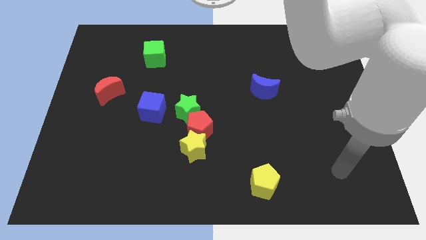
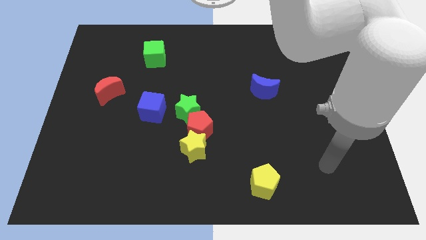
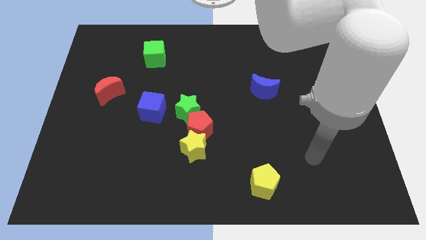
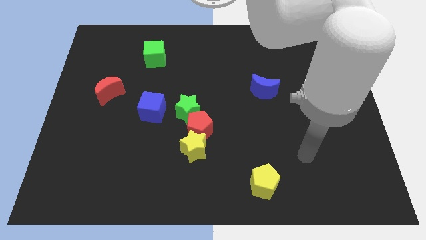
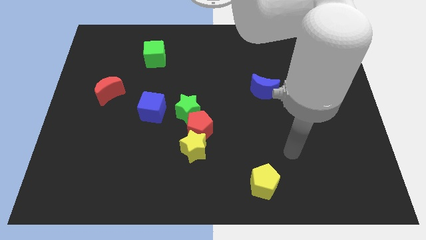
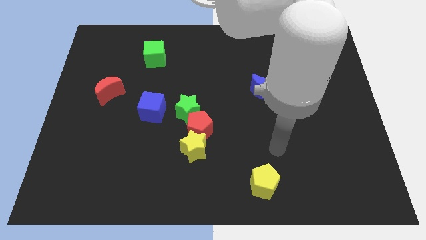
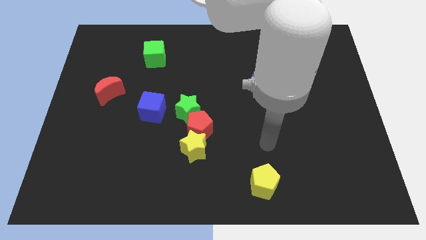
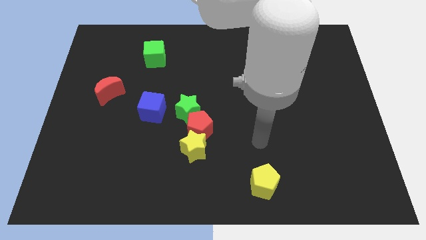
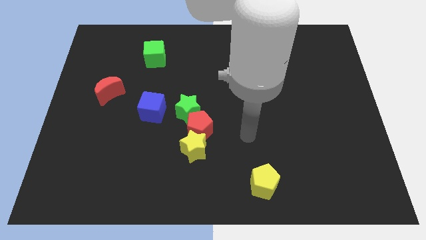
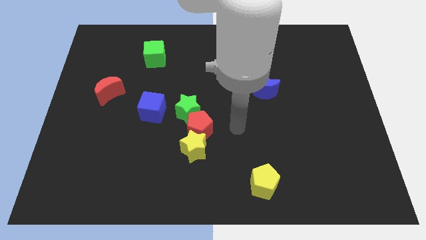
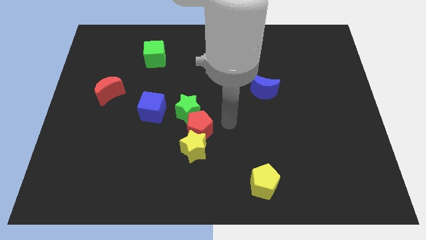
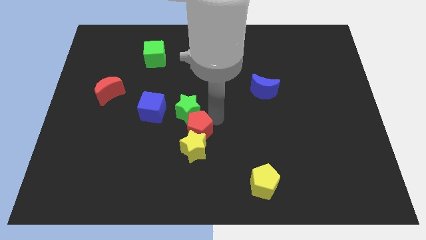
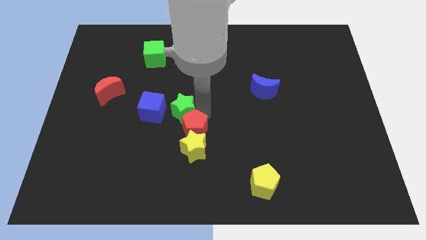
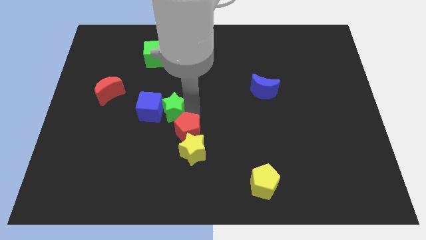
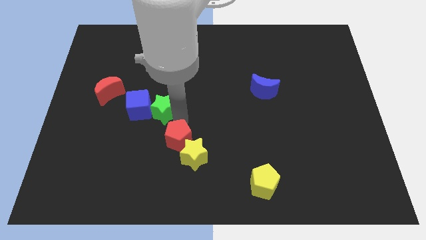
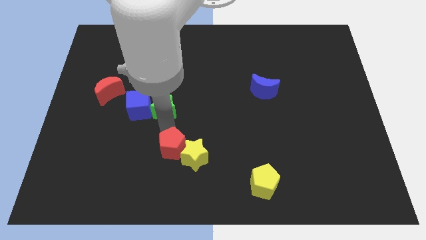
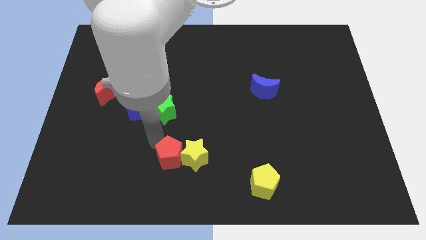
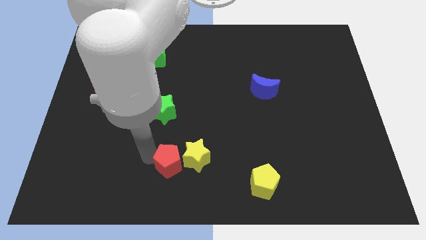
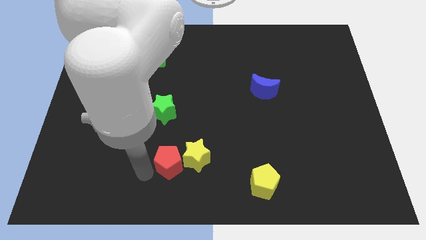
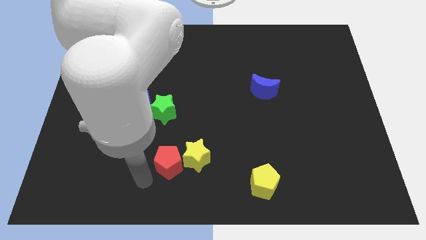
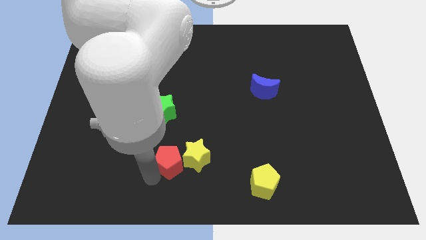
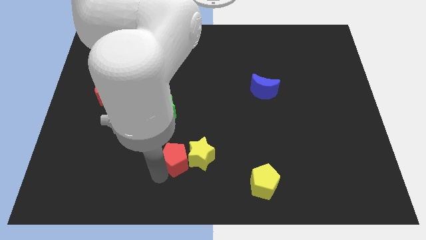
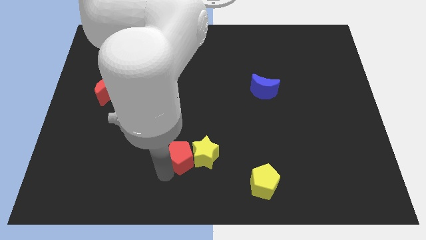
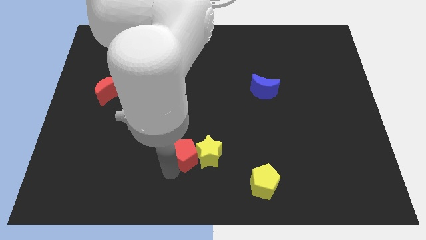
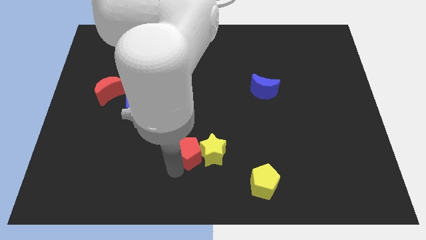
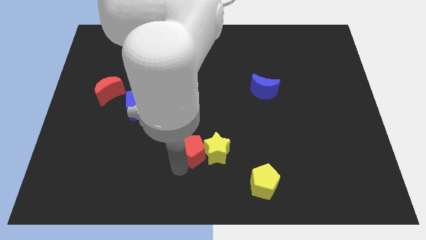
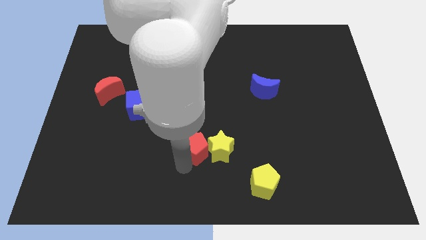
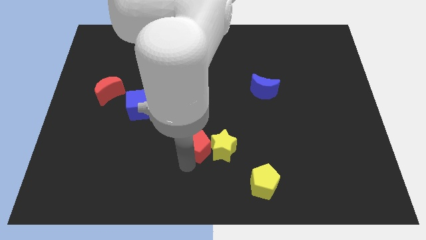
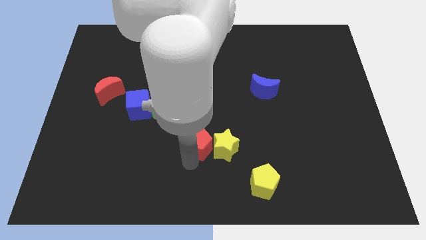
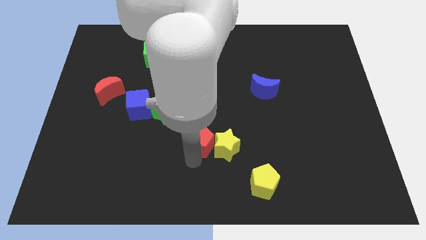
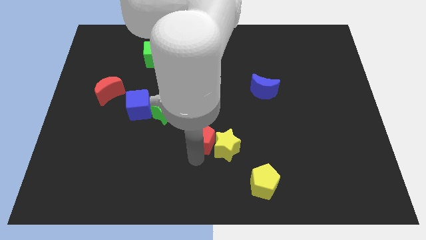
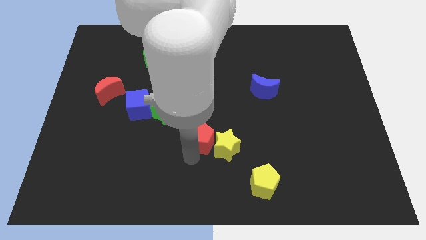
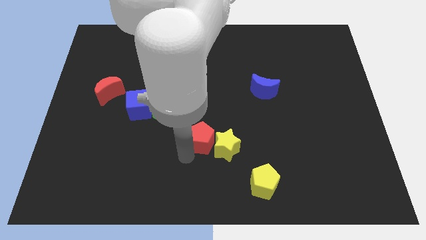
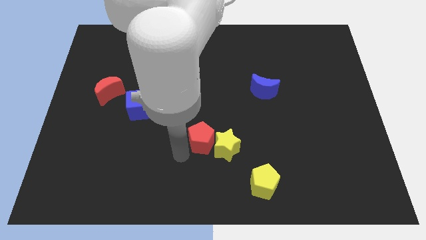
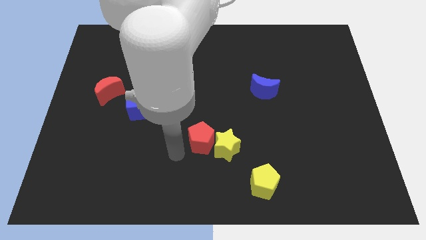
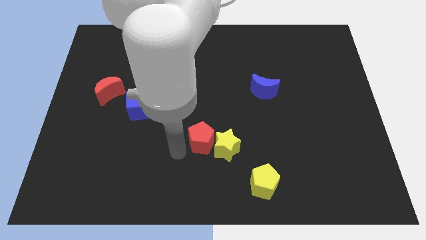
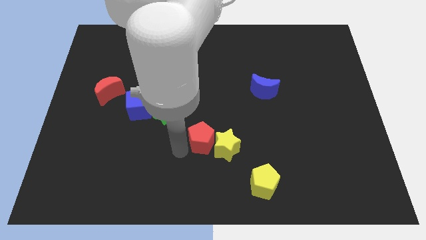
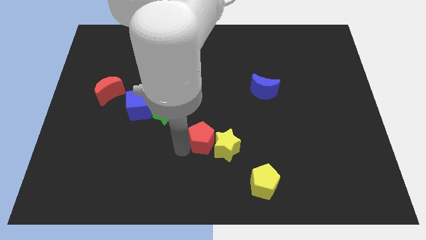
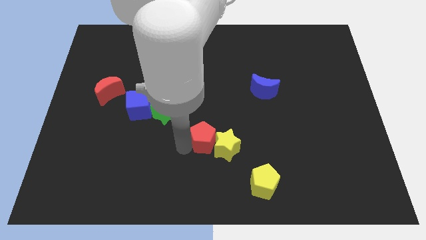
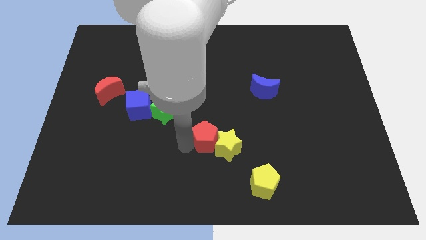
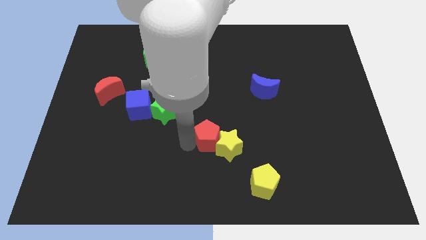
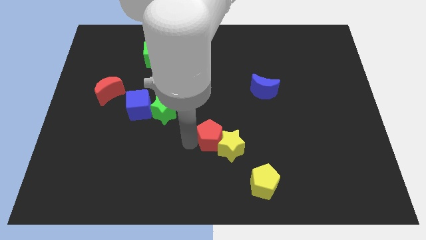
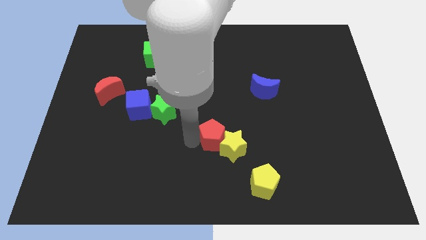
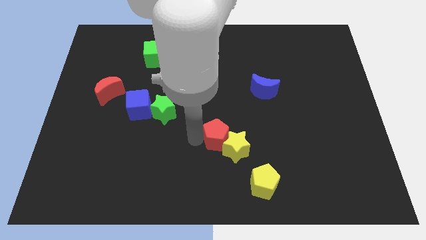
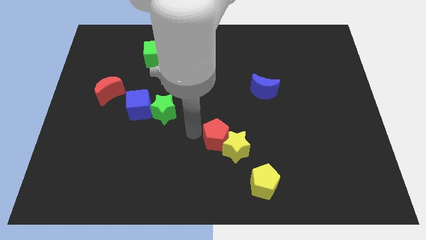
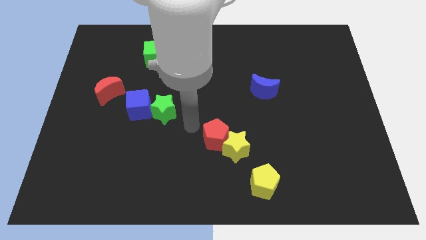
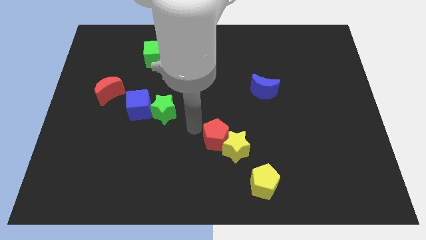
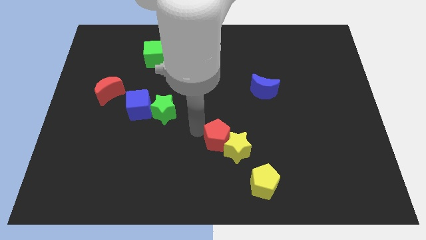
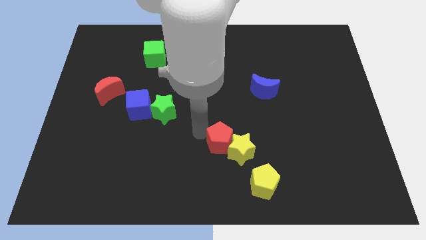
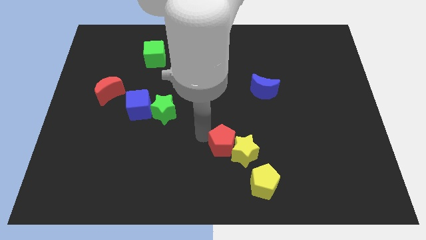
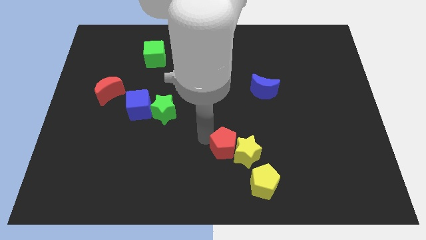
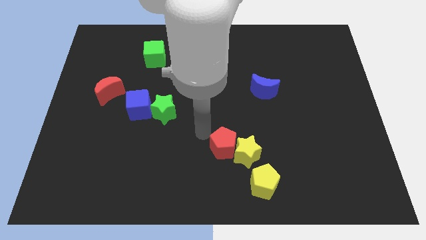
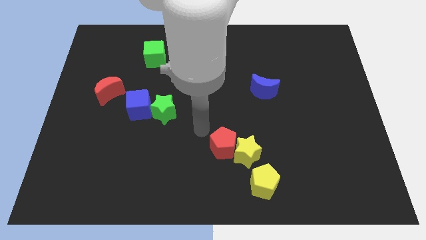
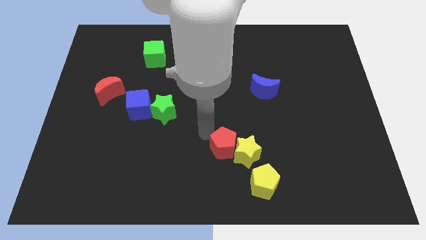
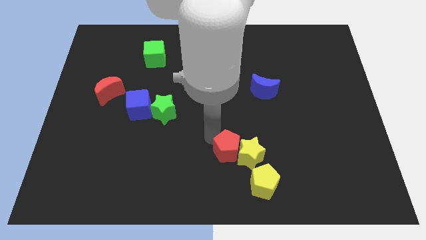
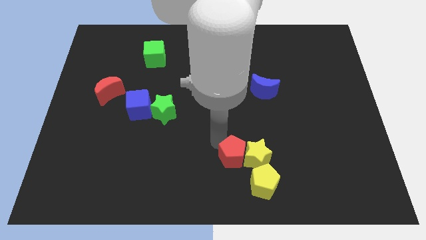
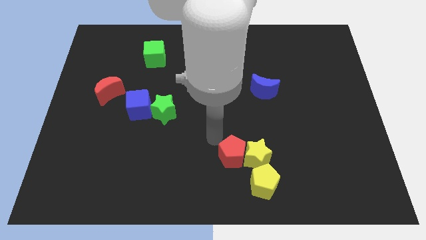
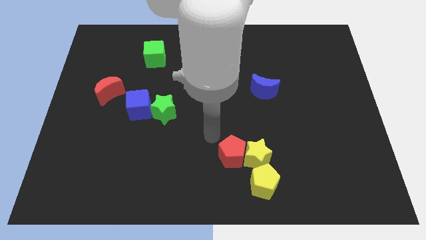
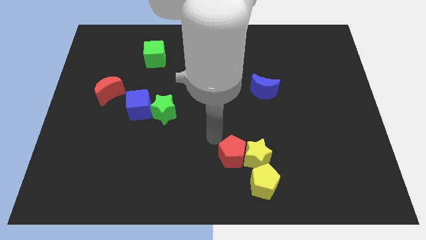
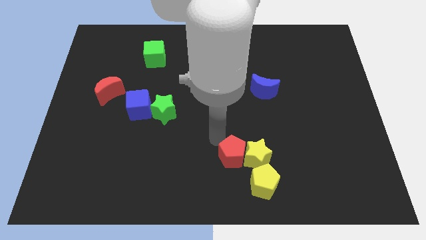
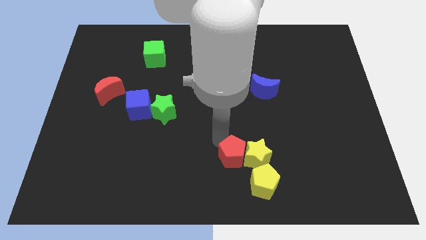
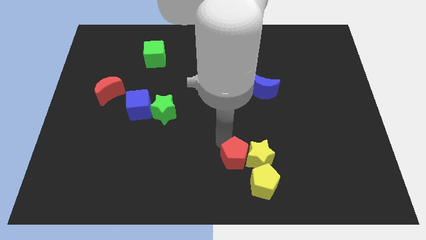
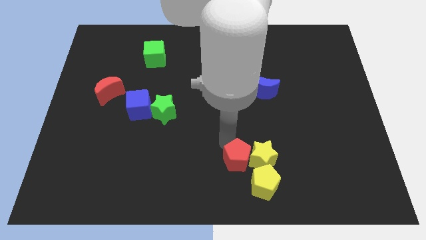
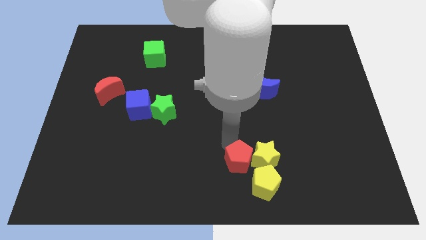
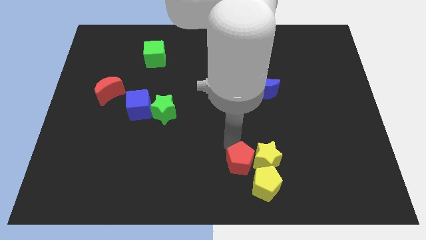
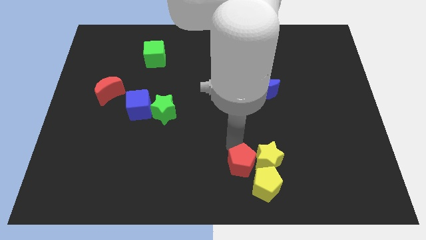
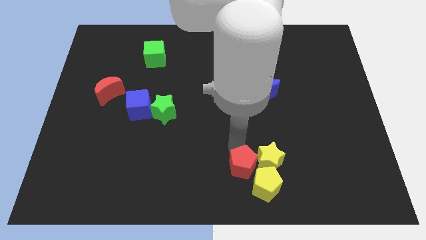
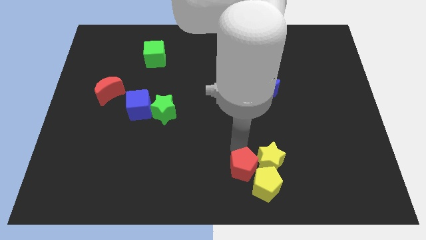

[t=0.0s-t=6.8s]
separate the red pentagon from the yellow star and green star

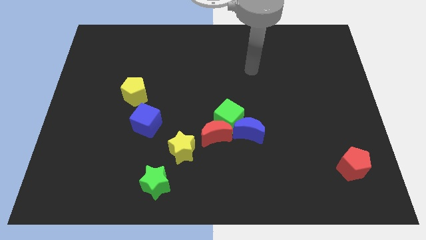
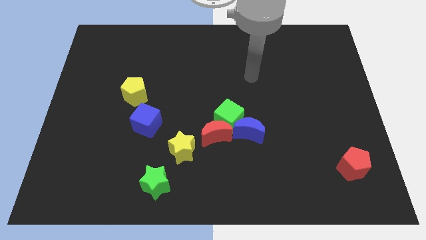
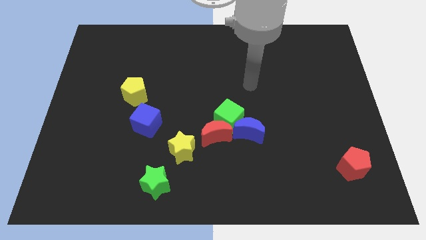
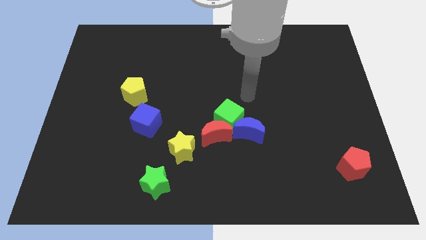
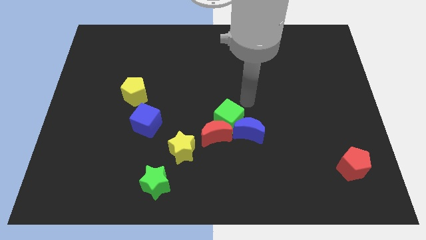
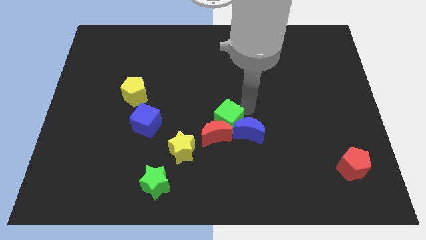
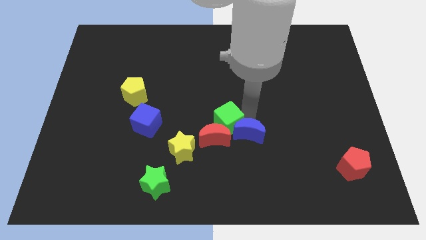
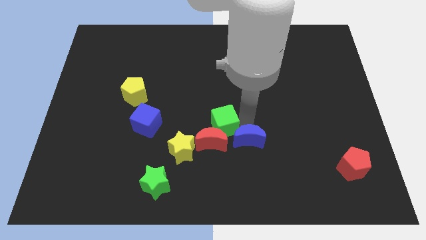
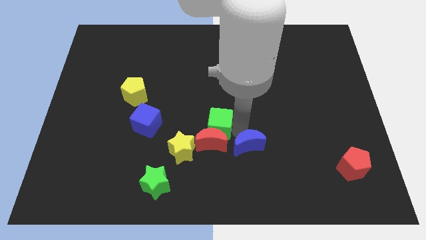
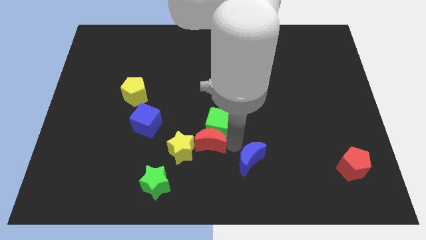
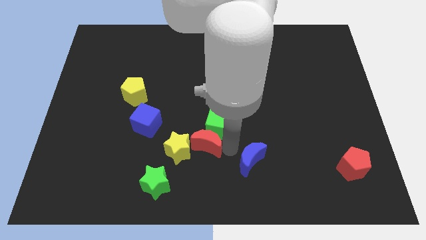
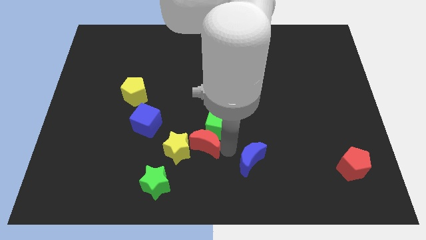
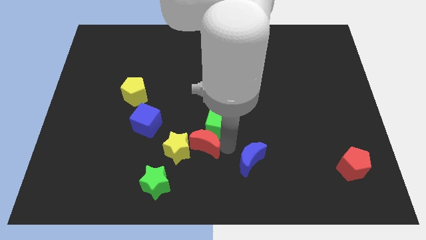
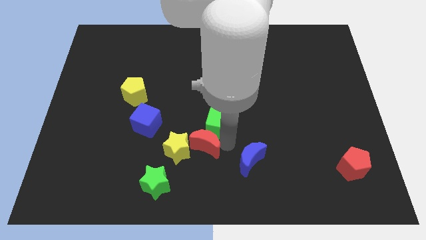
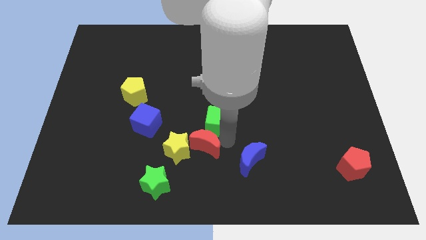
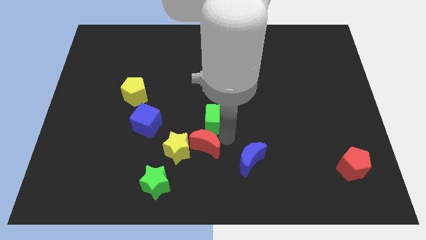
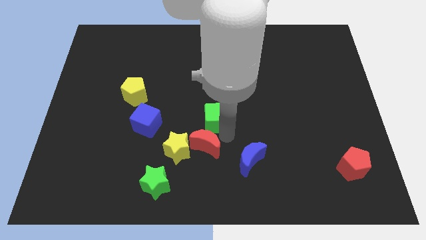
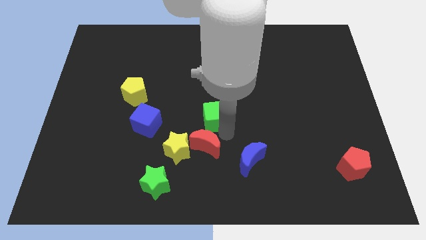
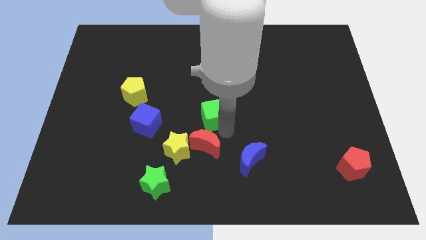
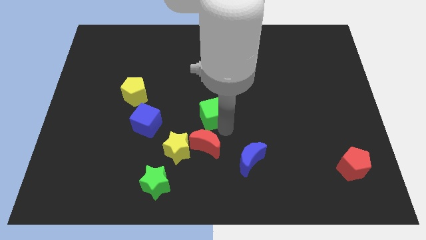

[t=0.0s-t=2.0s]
separate the green cube from the red moon and blue moon

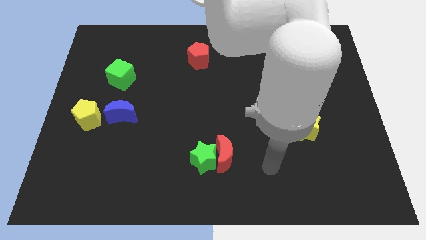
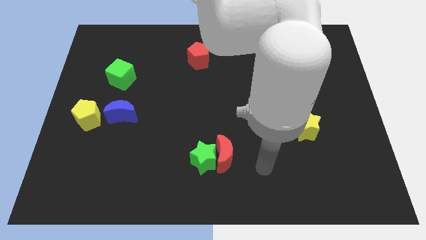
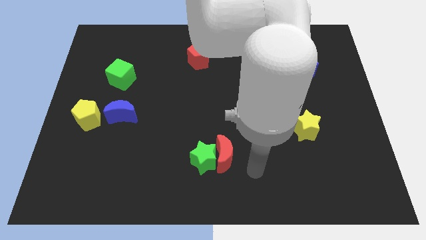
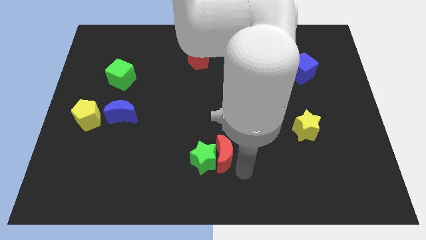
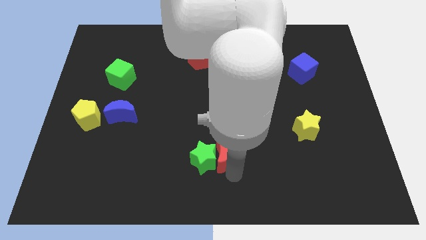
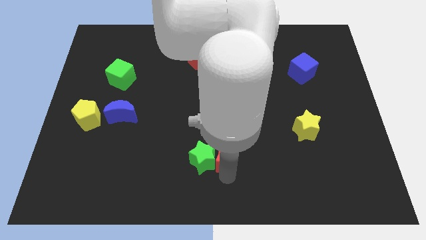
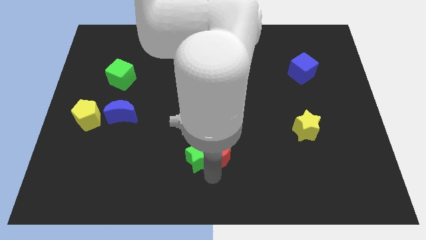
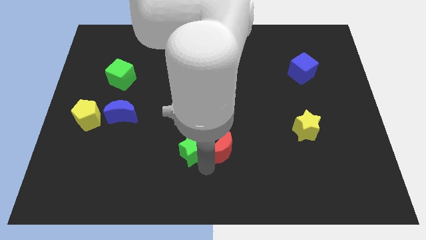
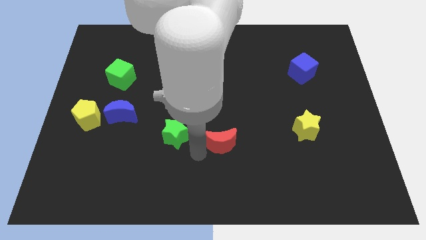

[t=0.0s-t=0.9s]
pull the red moon apart from the green star
